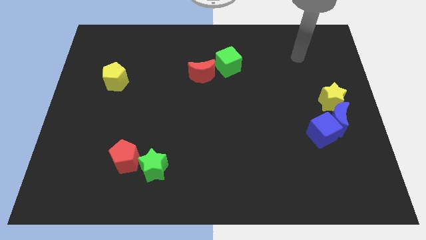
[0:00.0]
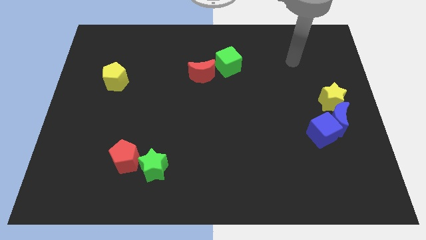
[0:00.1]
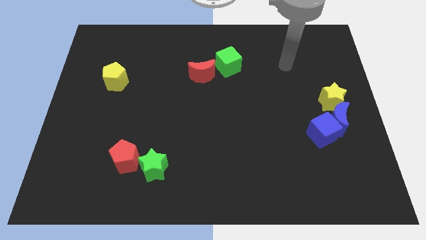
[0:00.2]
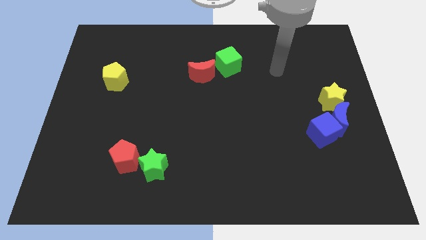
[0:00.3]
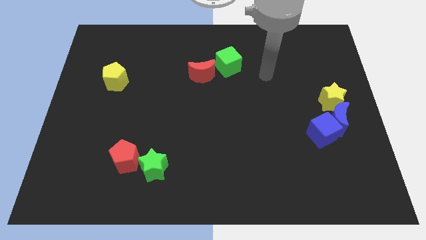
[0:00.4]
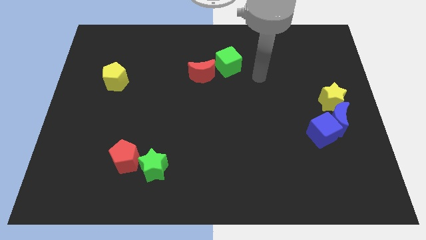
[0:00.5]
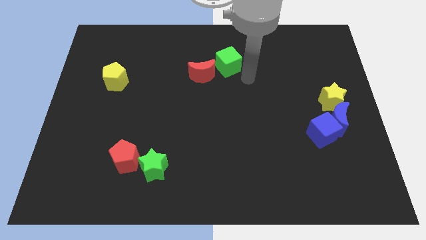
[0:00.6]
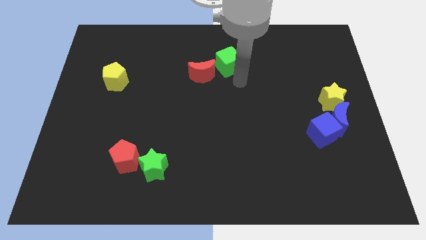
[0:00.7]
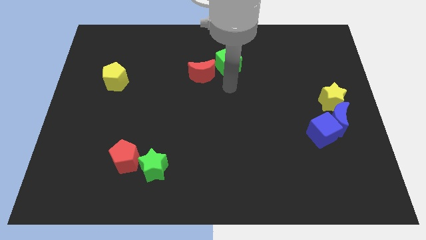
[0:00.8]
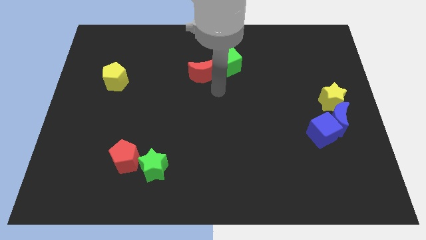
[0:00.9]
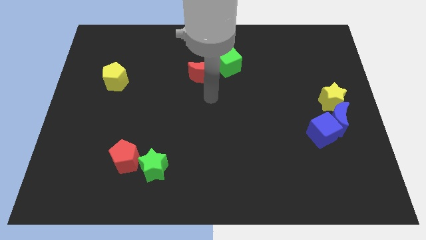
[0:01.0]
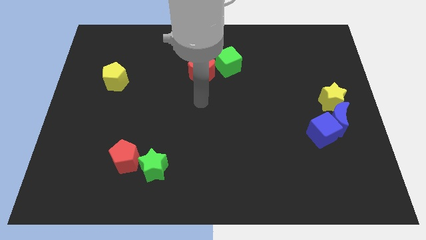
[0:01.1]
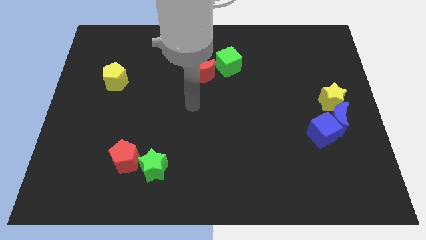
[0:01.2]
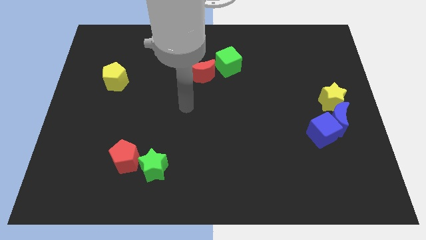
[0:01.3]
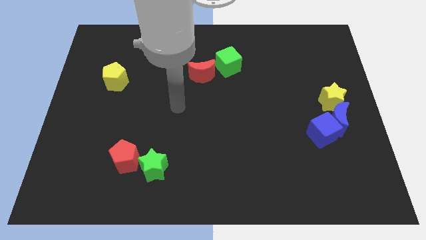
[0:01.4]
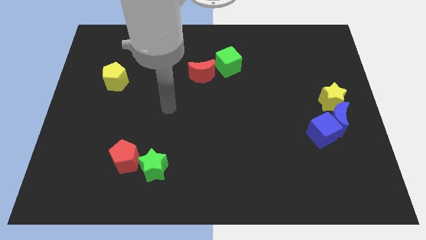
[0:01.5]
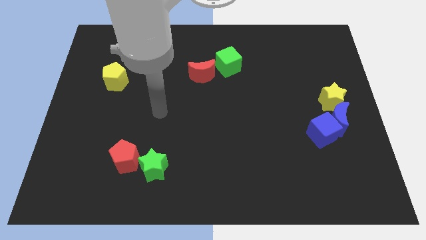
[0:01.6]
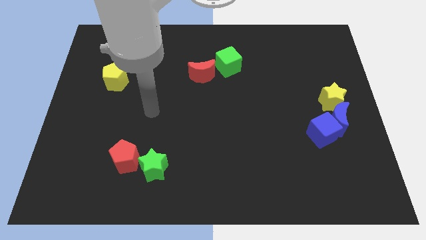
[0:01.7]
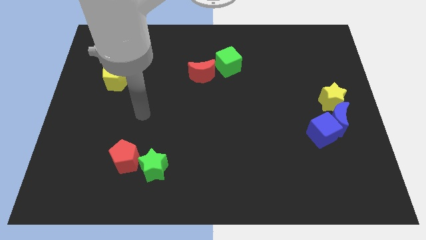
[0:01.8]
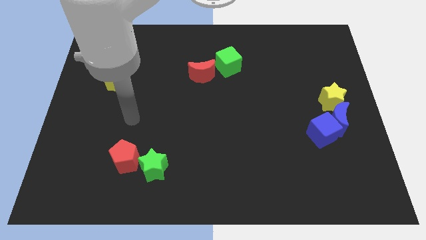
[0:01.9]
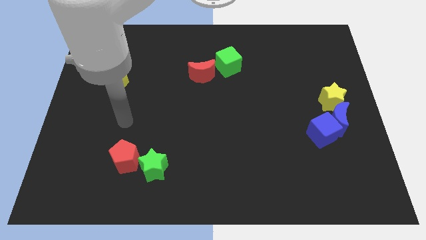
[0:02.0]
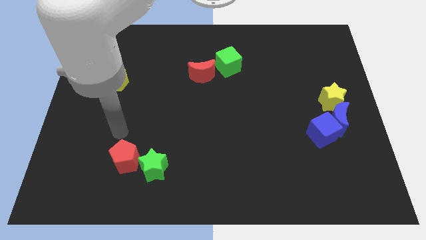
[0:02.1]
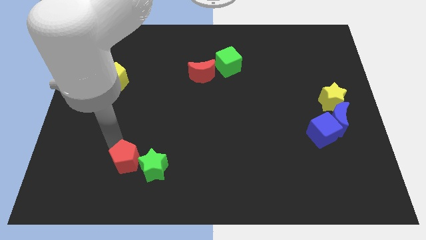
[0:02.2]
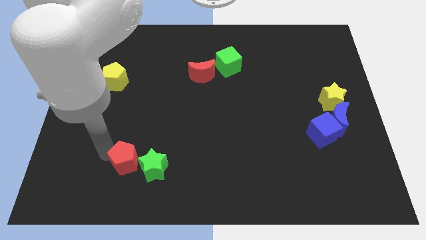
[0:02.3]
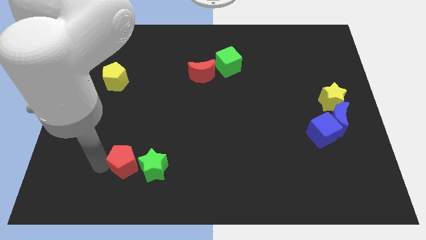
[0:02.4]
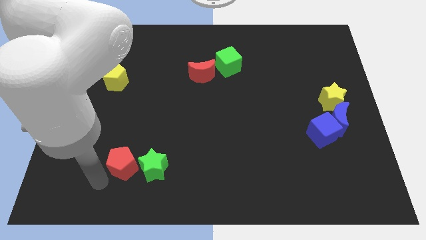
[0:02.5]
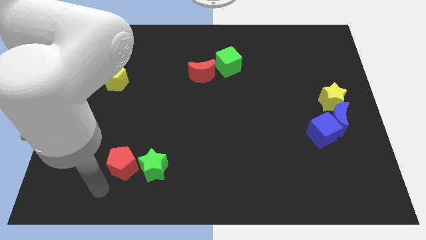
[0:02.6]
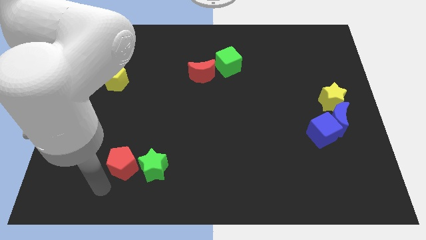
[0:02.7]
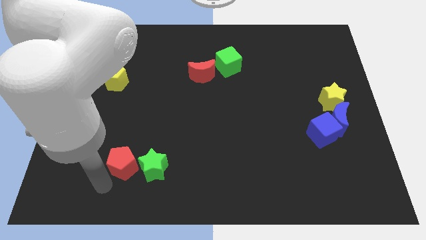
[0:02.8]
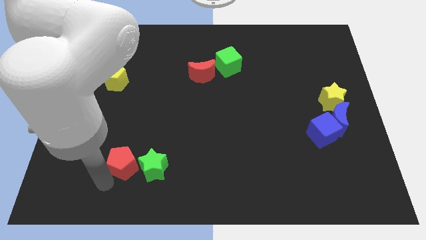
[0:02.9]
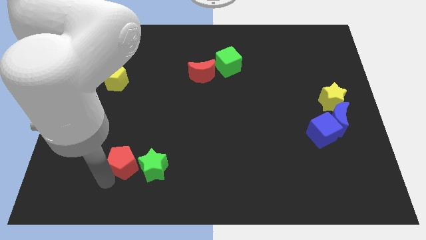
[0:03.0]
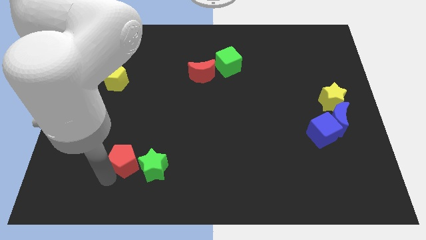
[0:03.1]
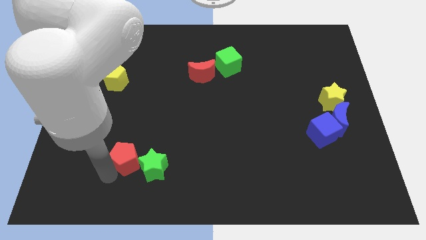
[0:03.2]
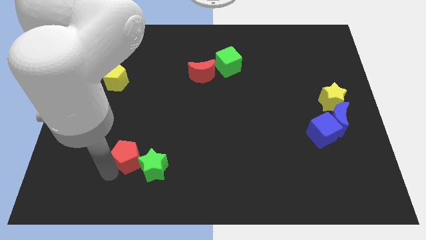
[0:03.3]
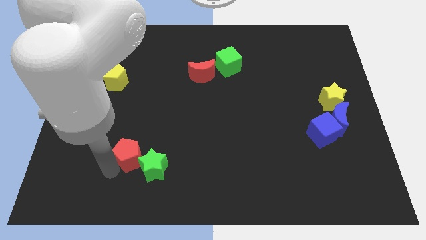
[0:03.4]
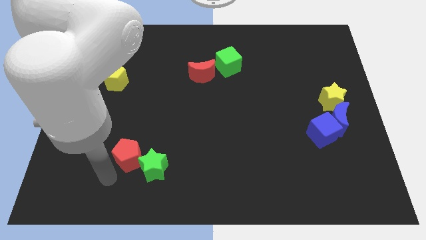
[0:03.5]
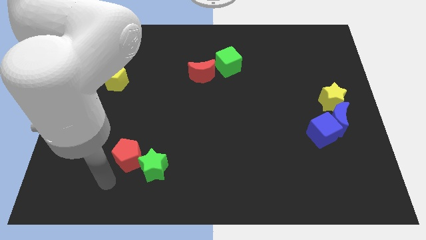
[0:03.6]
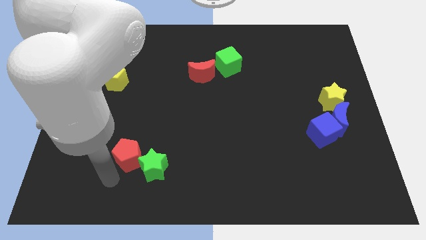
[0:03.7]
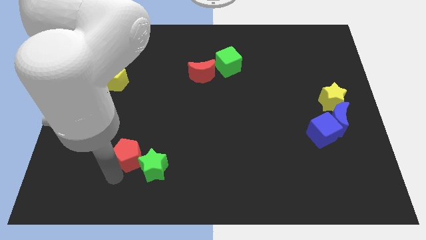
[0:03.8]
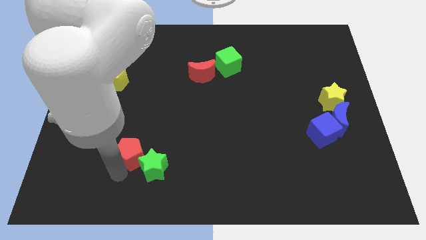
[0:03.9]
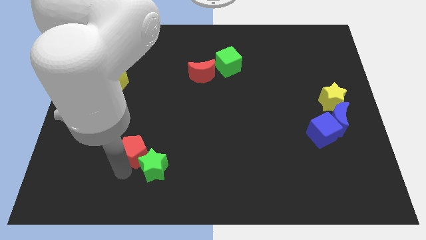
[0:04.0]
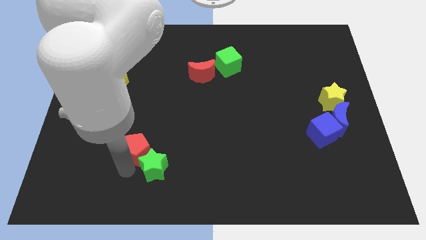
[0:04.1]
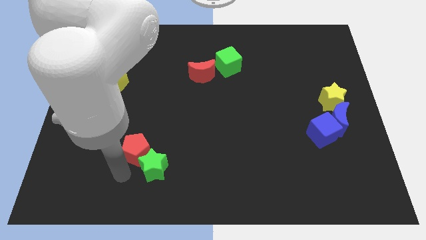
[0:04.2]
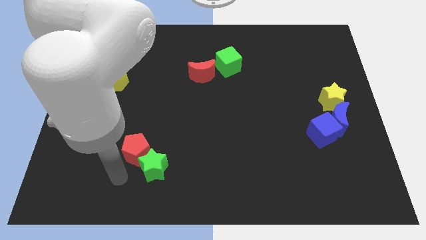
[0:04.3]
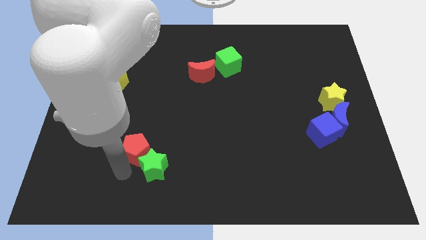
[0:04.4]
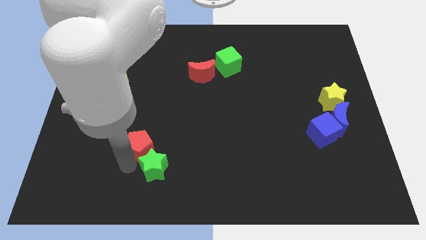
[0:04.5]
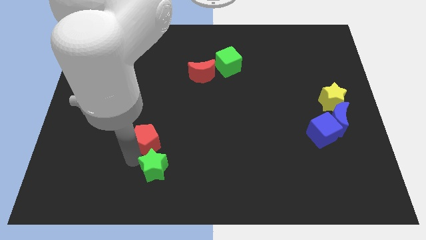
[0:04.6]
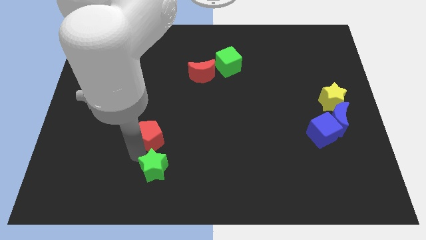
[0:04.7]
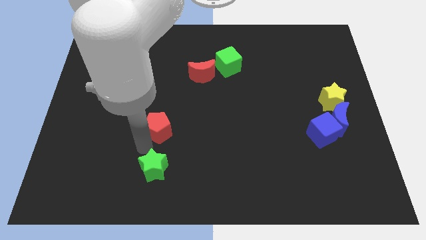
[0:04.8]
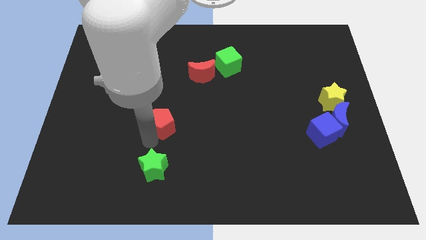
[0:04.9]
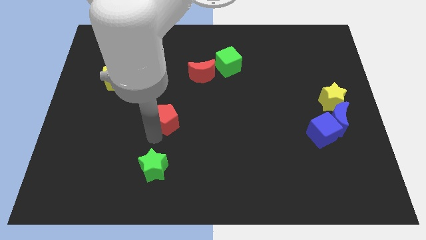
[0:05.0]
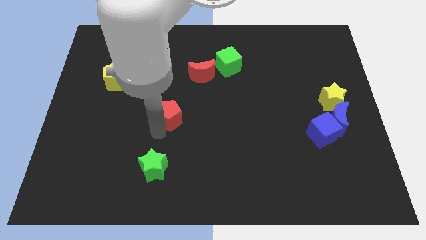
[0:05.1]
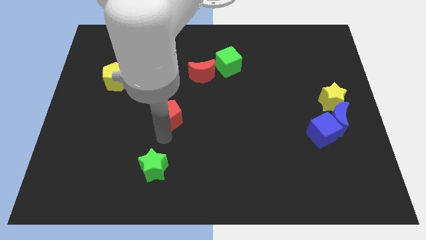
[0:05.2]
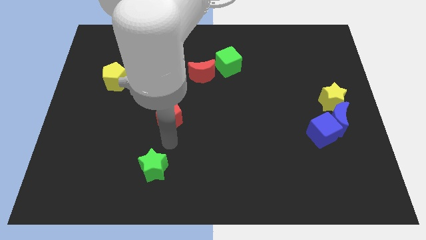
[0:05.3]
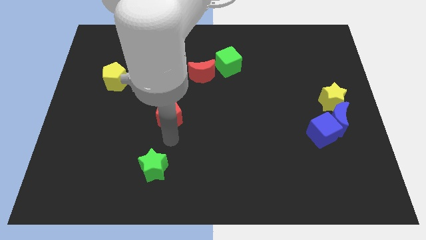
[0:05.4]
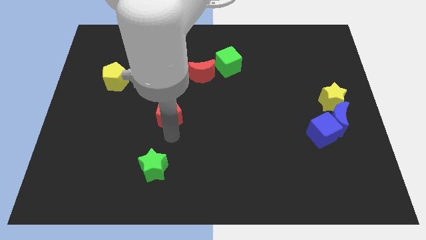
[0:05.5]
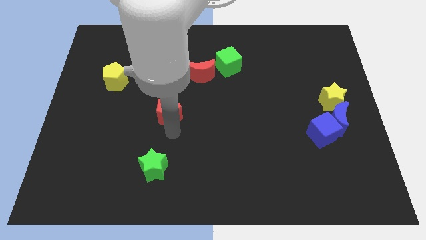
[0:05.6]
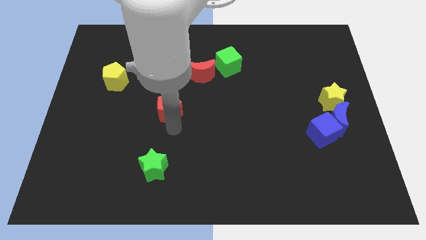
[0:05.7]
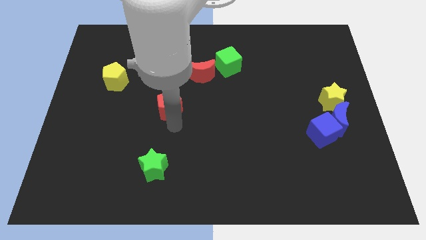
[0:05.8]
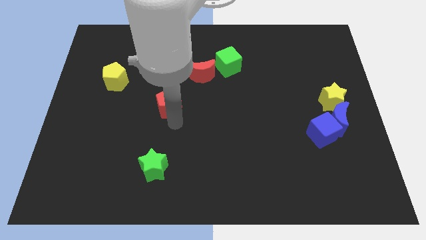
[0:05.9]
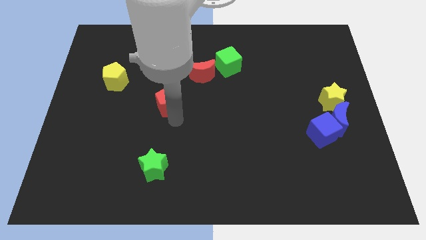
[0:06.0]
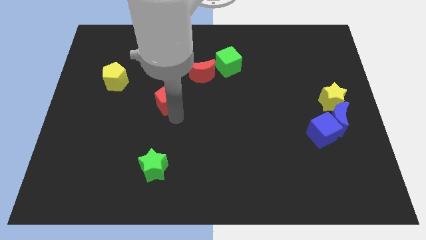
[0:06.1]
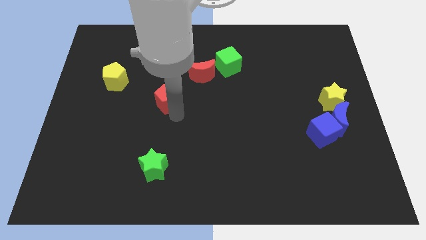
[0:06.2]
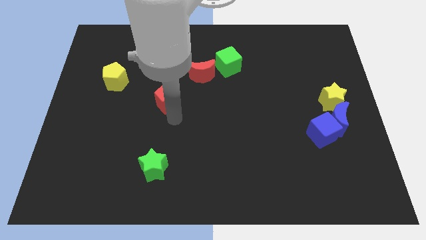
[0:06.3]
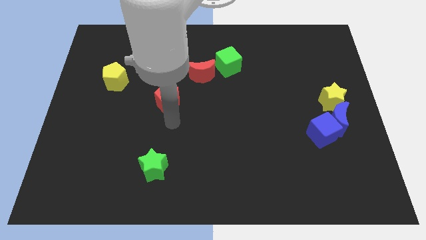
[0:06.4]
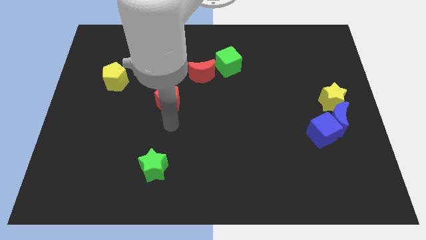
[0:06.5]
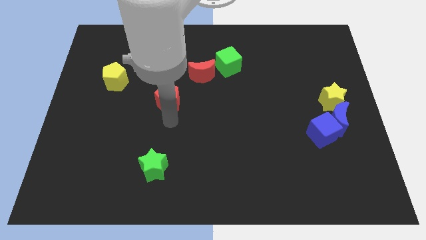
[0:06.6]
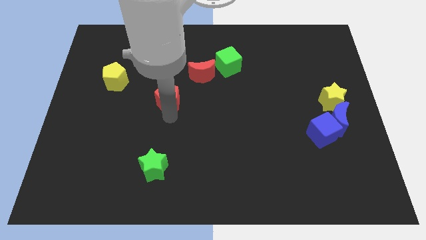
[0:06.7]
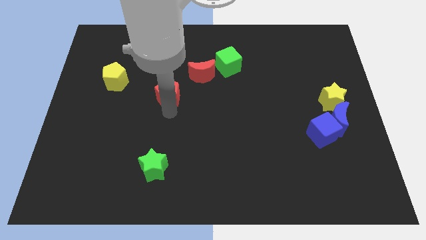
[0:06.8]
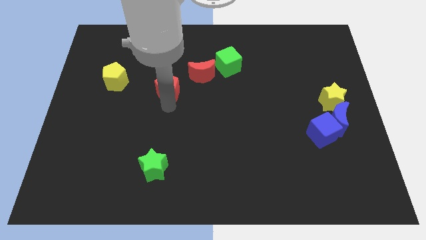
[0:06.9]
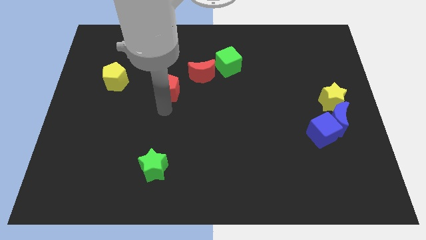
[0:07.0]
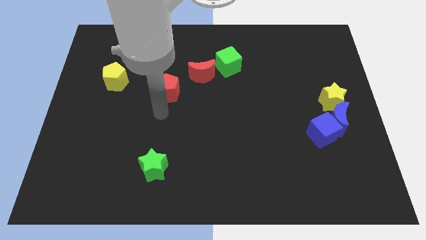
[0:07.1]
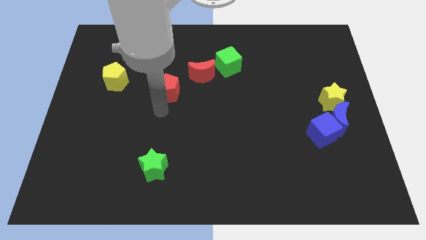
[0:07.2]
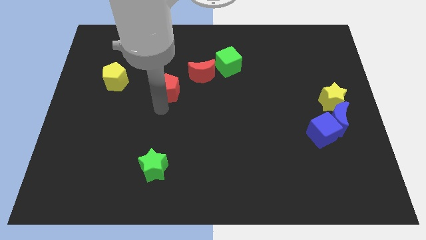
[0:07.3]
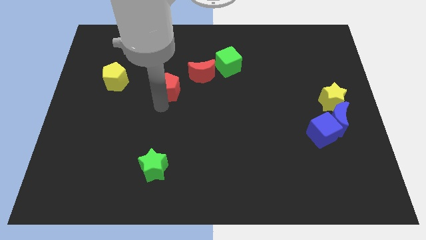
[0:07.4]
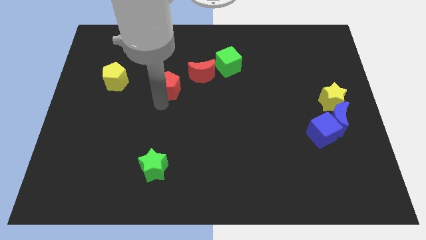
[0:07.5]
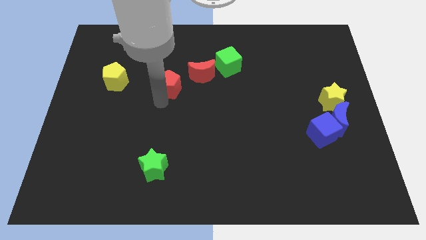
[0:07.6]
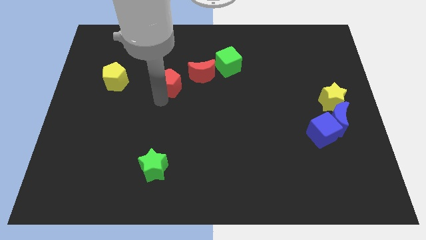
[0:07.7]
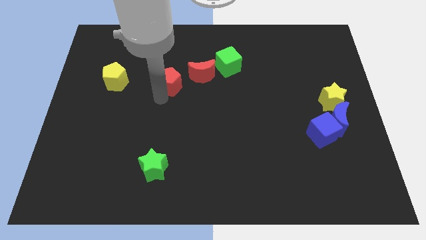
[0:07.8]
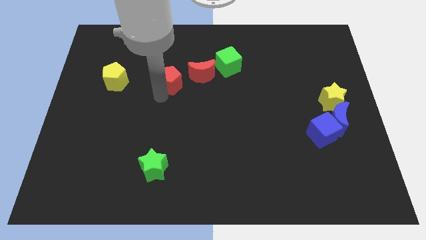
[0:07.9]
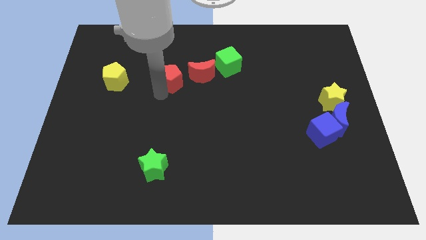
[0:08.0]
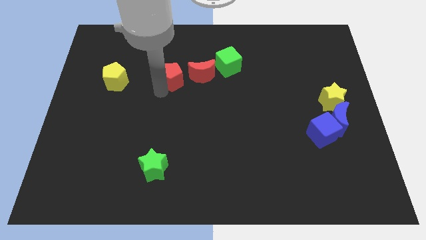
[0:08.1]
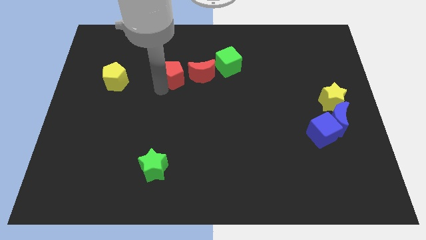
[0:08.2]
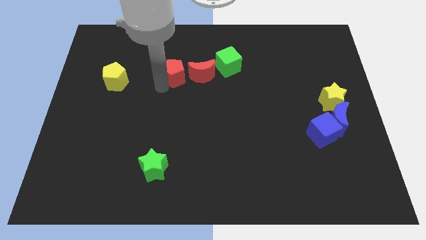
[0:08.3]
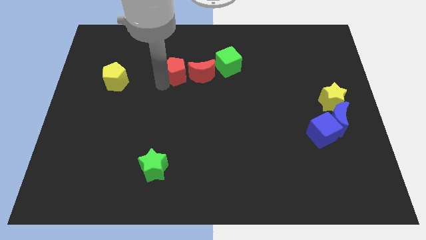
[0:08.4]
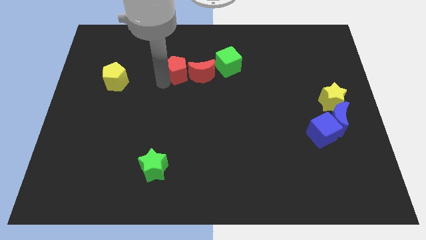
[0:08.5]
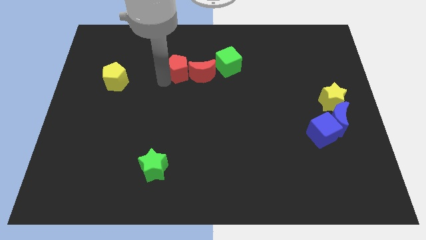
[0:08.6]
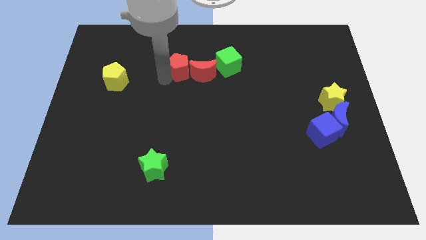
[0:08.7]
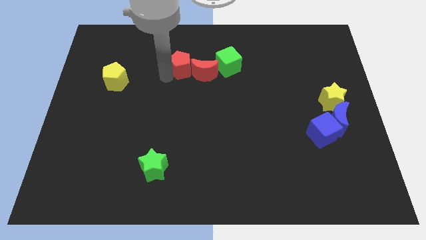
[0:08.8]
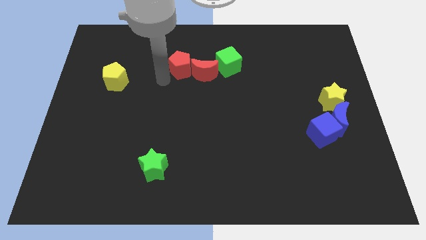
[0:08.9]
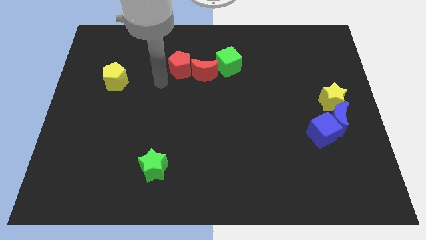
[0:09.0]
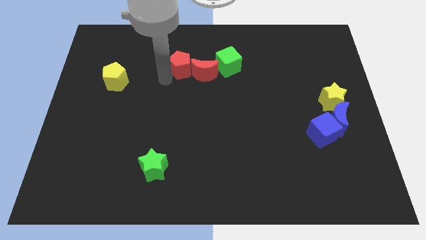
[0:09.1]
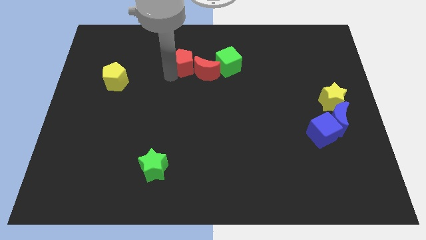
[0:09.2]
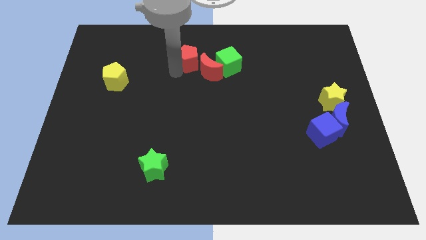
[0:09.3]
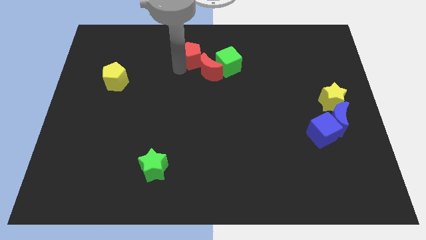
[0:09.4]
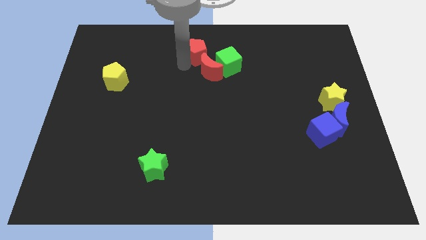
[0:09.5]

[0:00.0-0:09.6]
put the red pentagon to the top
